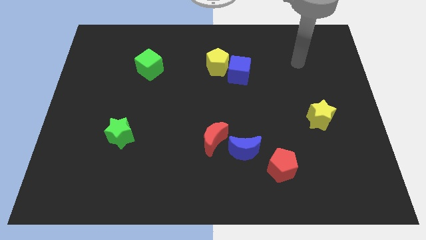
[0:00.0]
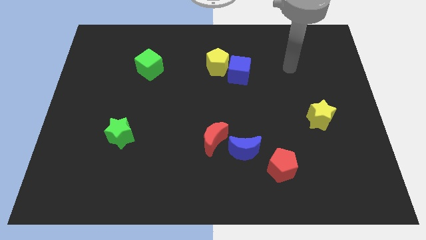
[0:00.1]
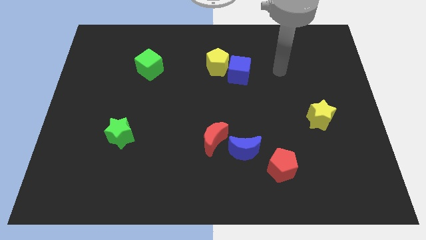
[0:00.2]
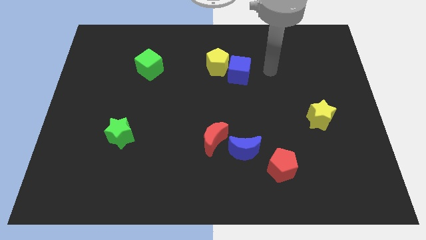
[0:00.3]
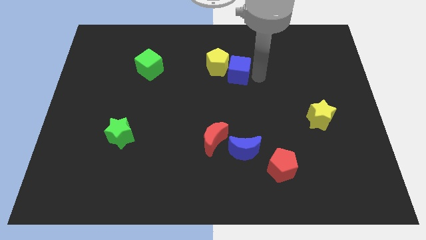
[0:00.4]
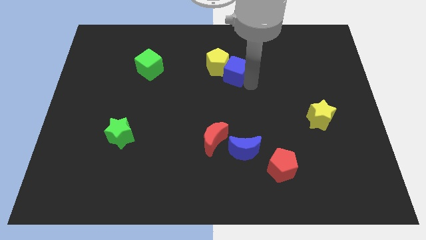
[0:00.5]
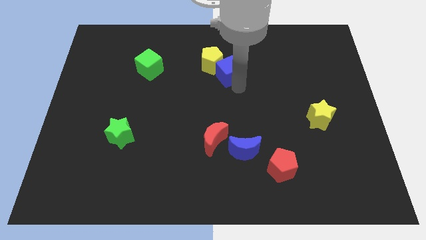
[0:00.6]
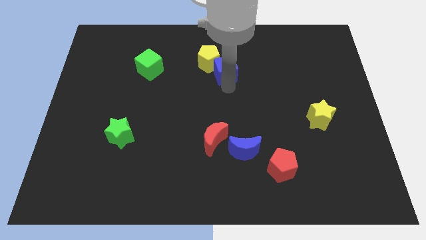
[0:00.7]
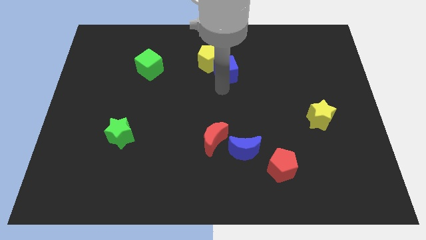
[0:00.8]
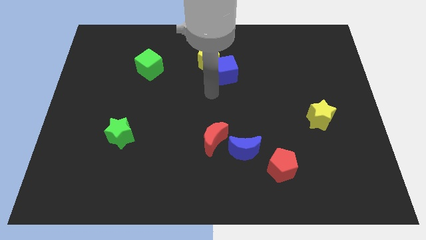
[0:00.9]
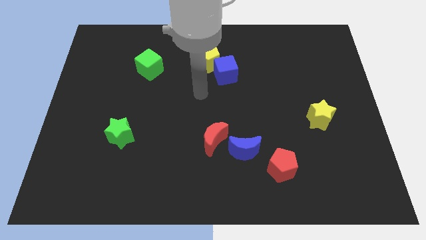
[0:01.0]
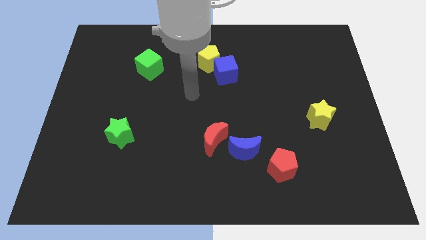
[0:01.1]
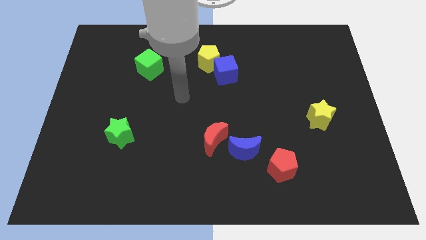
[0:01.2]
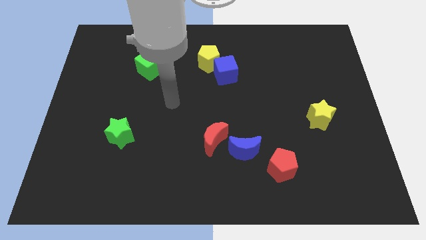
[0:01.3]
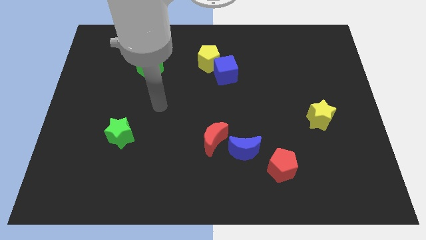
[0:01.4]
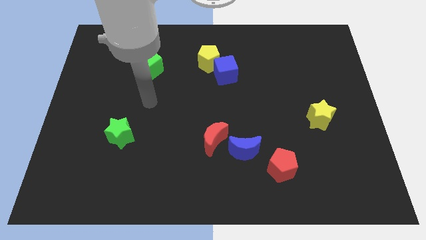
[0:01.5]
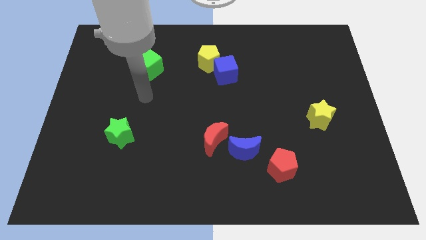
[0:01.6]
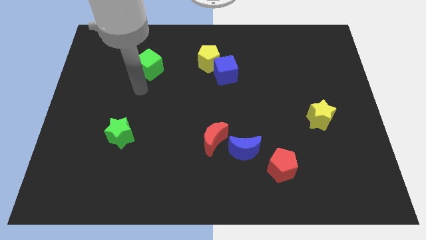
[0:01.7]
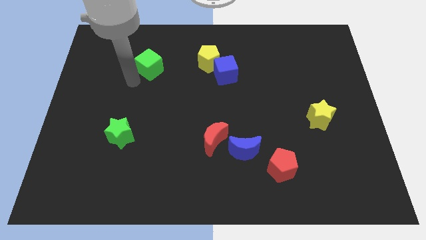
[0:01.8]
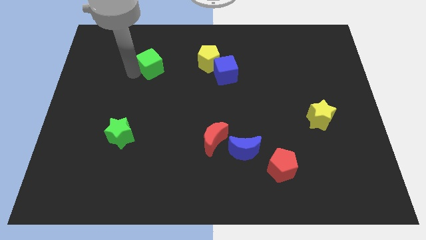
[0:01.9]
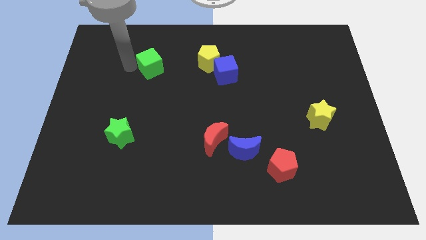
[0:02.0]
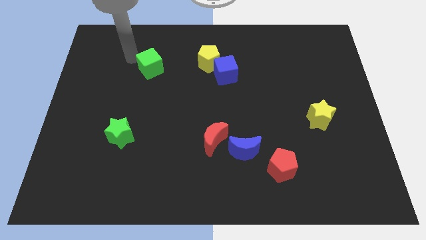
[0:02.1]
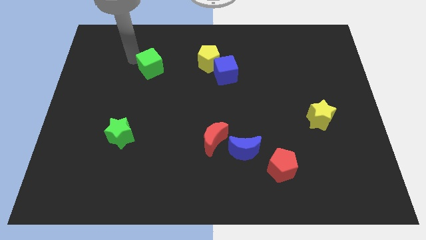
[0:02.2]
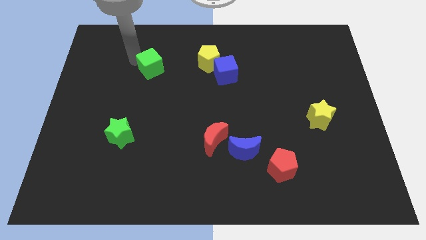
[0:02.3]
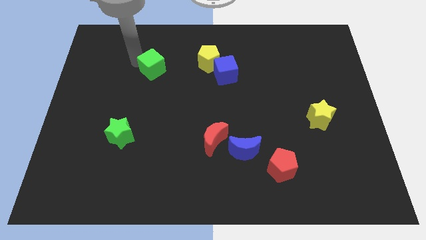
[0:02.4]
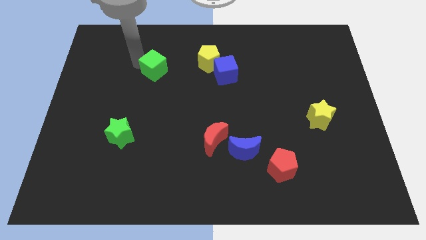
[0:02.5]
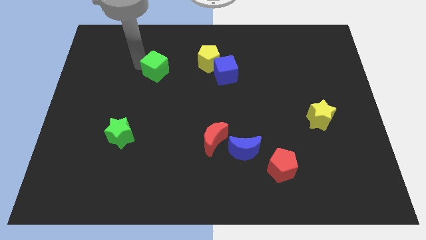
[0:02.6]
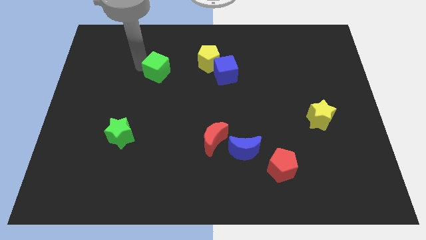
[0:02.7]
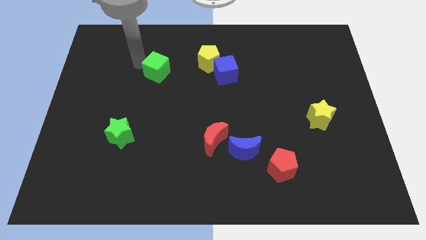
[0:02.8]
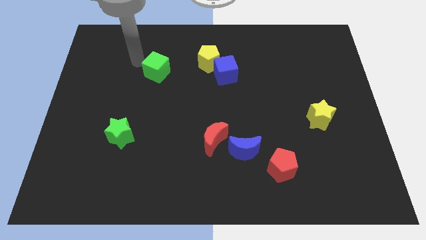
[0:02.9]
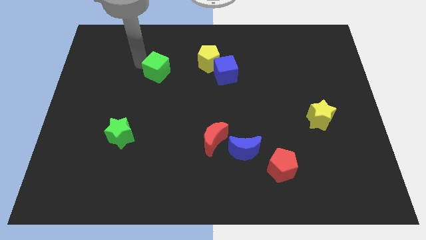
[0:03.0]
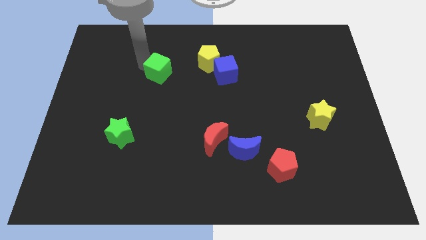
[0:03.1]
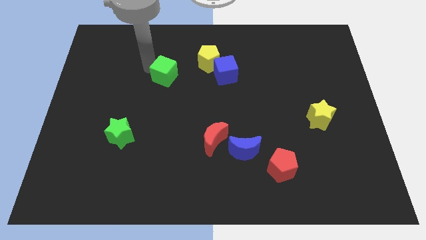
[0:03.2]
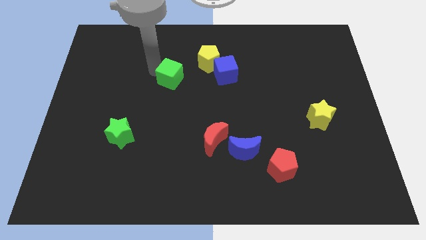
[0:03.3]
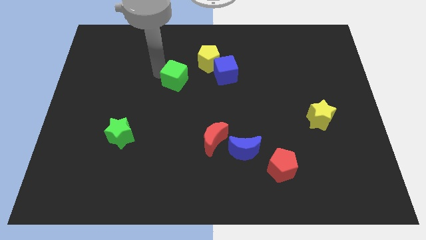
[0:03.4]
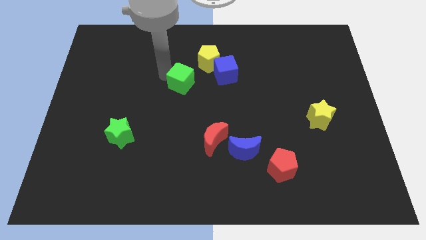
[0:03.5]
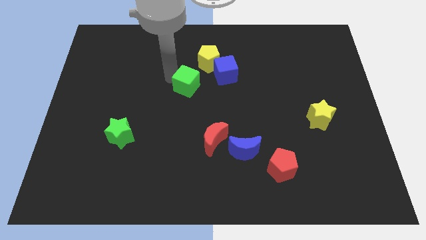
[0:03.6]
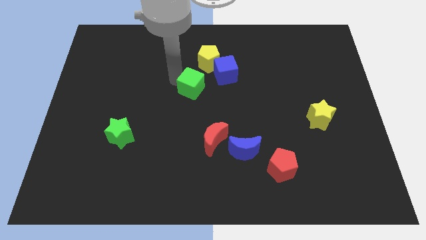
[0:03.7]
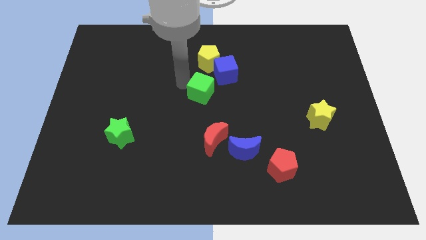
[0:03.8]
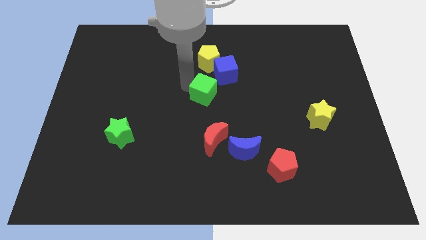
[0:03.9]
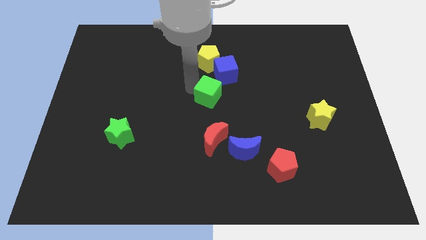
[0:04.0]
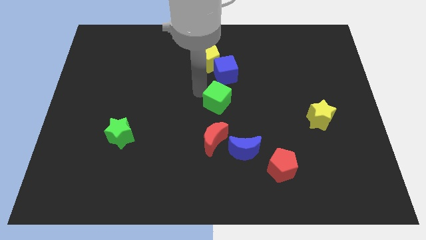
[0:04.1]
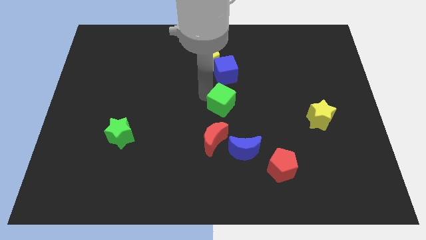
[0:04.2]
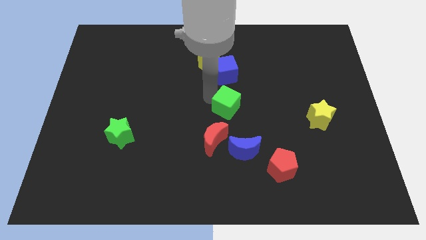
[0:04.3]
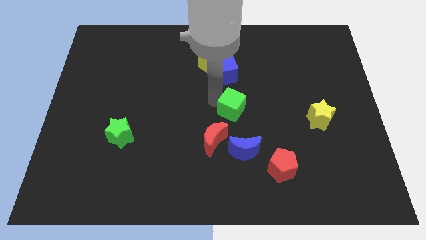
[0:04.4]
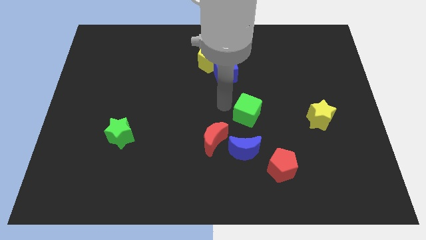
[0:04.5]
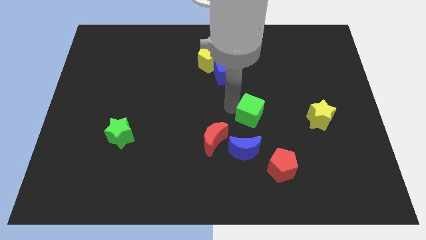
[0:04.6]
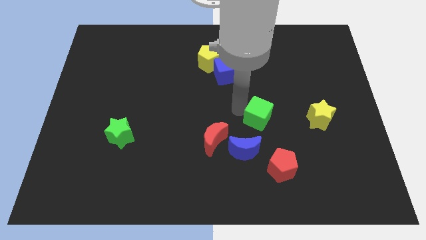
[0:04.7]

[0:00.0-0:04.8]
push the green cube to the top side of the red pentagon

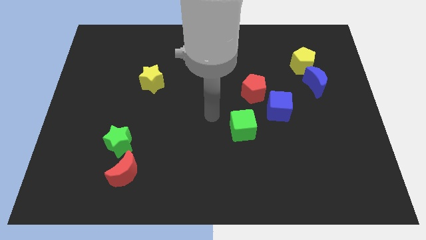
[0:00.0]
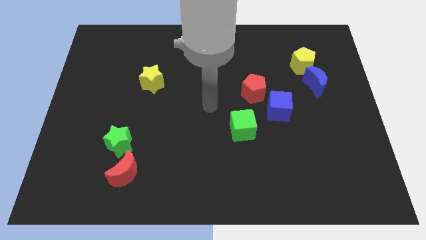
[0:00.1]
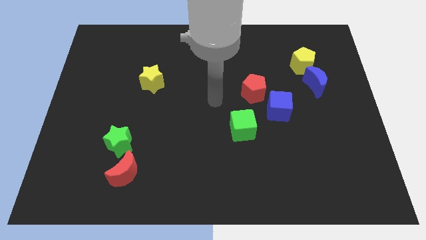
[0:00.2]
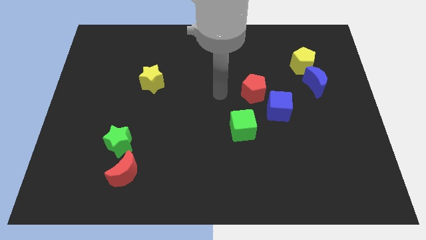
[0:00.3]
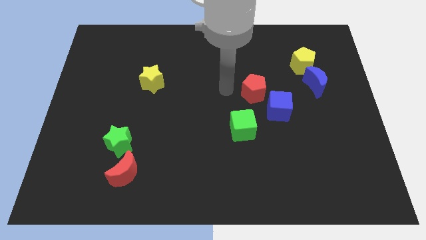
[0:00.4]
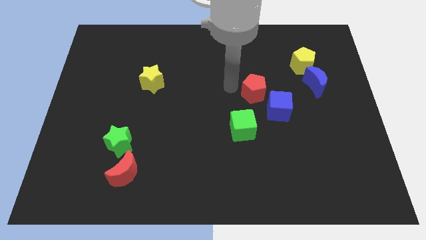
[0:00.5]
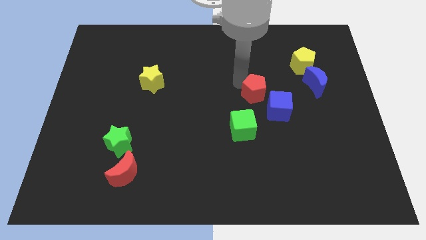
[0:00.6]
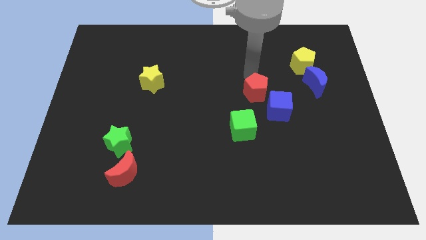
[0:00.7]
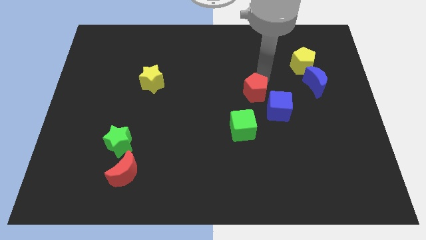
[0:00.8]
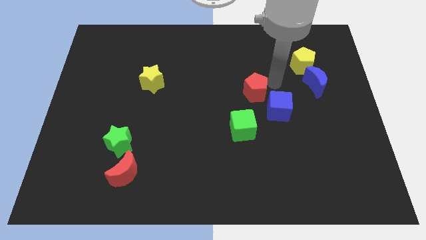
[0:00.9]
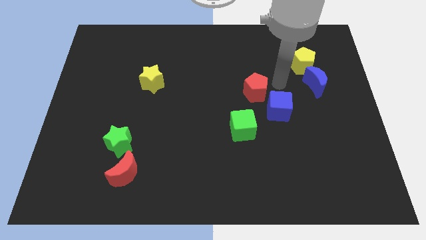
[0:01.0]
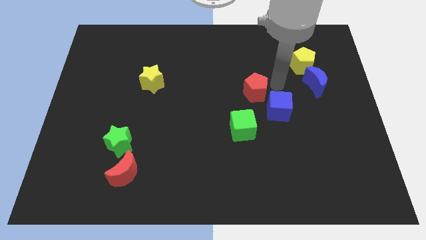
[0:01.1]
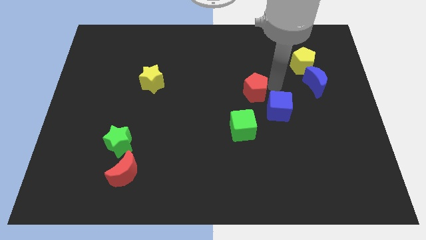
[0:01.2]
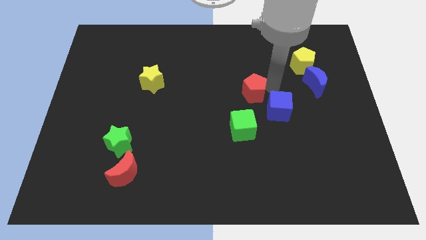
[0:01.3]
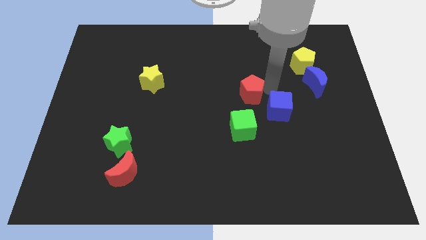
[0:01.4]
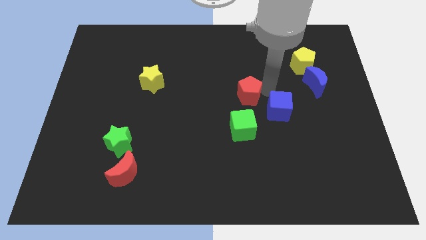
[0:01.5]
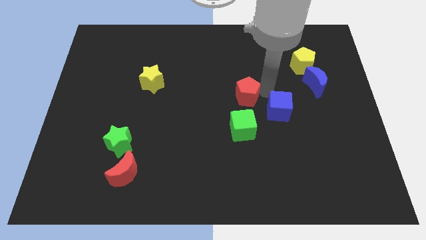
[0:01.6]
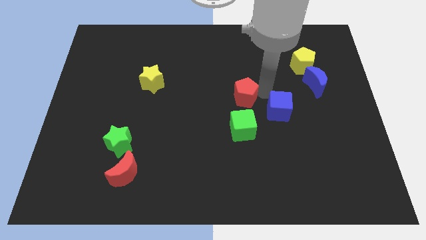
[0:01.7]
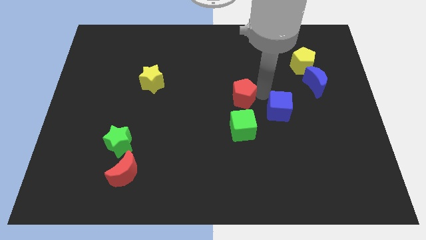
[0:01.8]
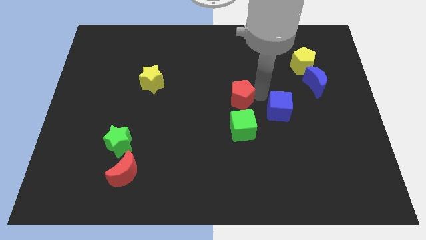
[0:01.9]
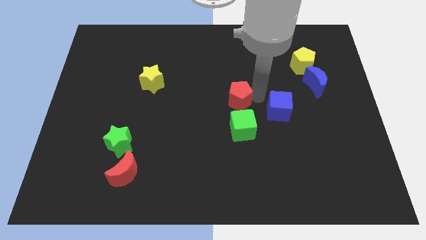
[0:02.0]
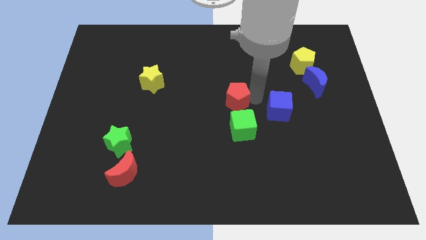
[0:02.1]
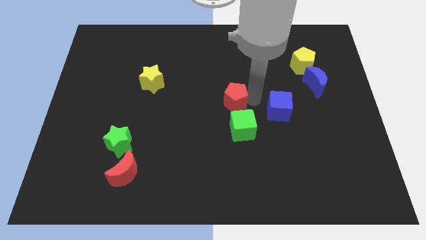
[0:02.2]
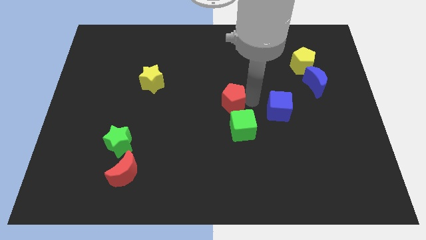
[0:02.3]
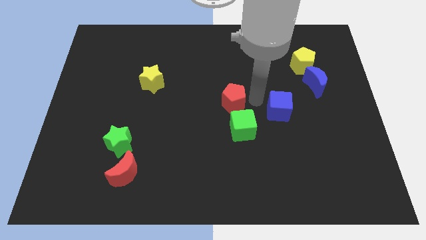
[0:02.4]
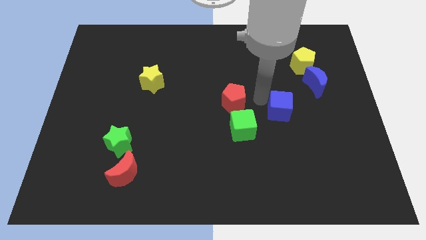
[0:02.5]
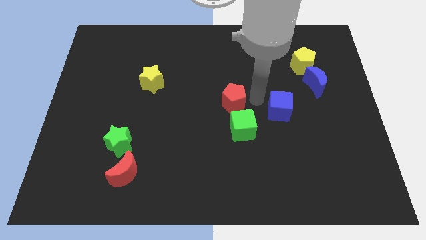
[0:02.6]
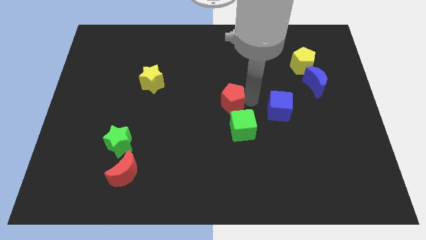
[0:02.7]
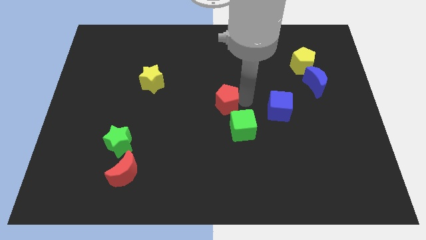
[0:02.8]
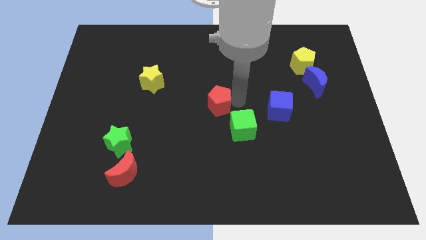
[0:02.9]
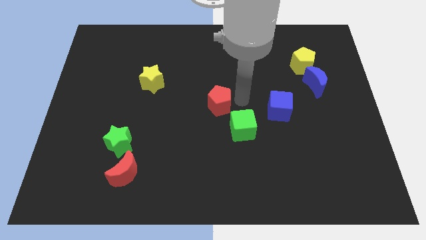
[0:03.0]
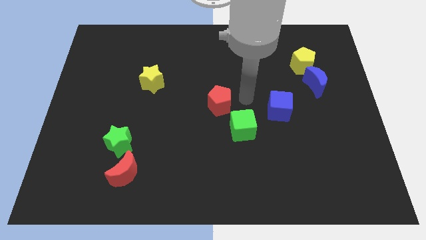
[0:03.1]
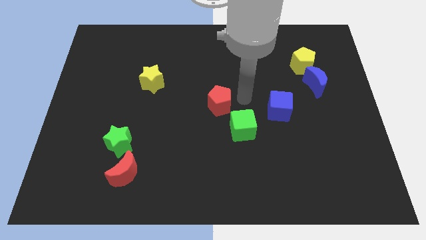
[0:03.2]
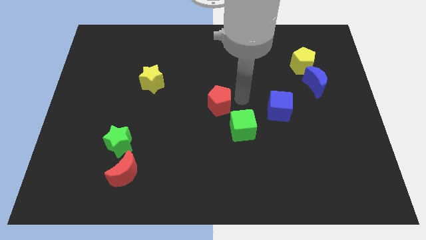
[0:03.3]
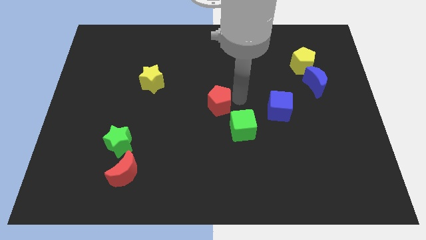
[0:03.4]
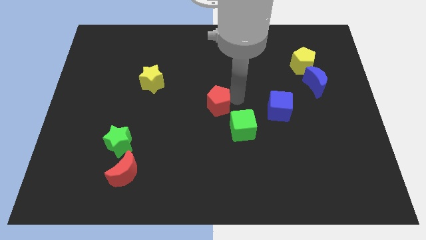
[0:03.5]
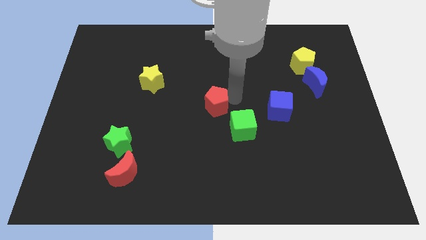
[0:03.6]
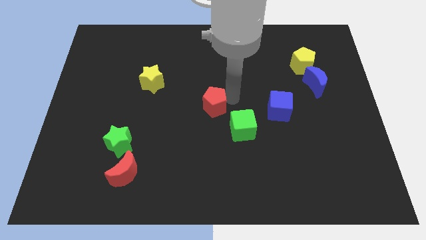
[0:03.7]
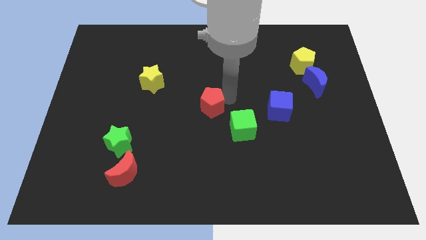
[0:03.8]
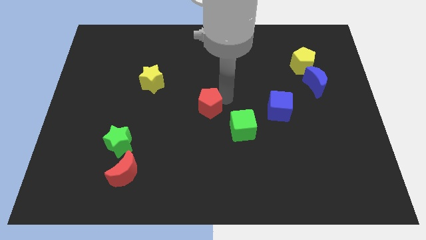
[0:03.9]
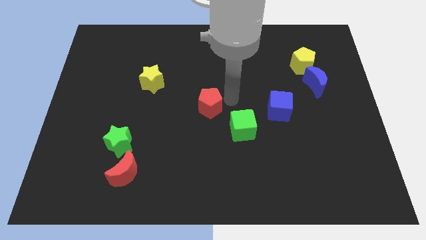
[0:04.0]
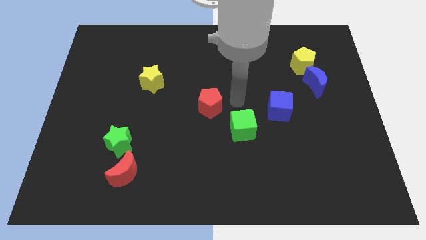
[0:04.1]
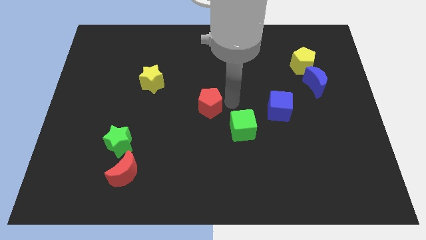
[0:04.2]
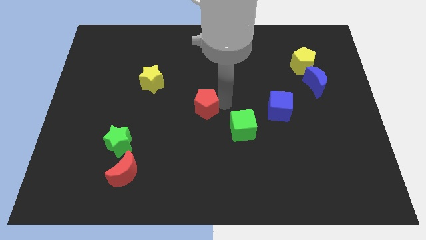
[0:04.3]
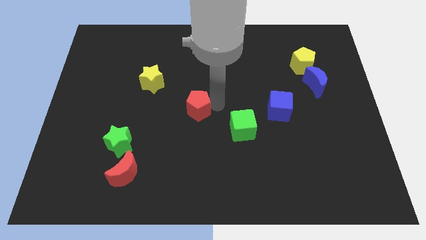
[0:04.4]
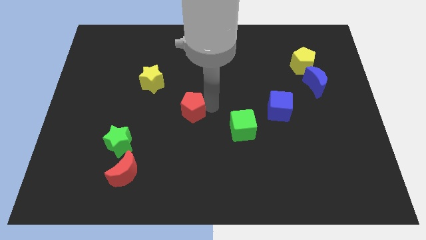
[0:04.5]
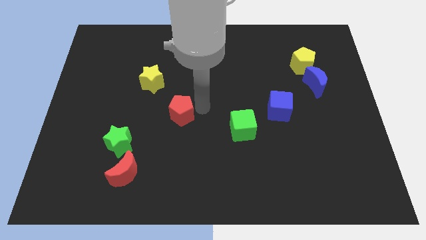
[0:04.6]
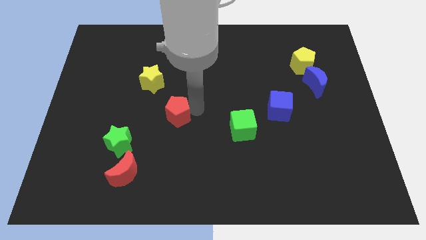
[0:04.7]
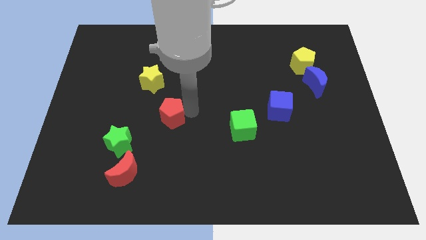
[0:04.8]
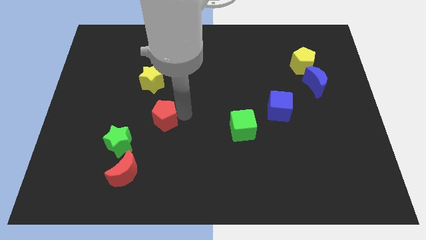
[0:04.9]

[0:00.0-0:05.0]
put the red pentagon to the bottom side of the yellow star
